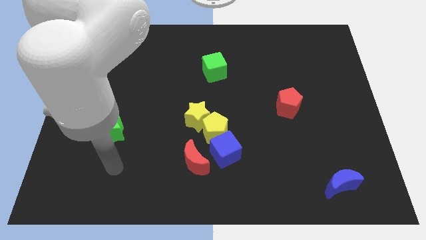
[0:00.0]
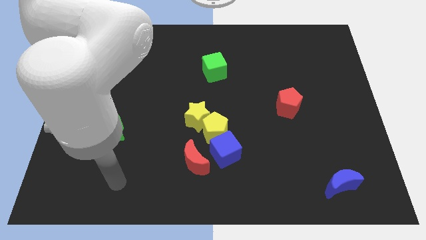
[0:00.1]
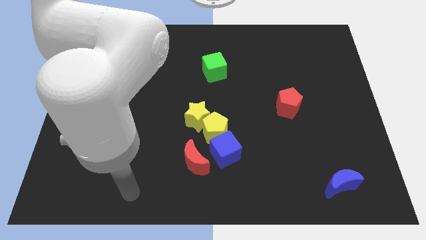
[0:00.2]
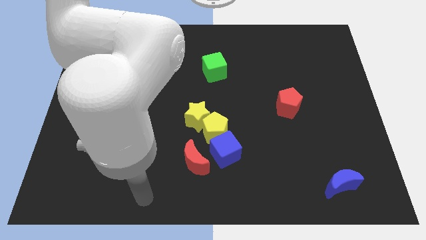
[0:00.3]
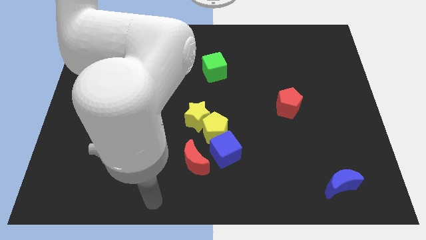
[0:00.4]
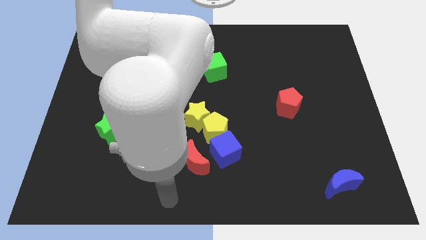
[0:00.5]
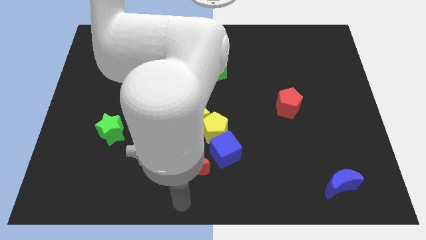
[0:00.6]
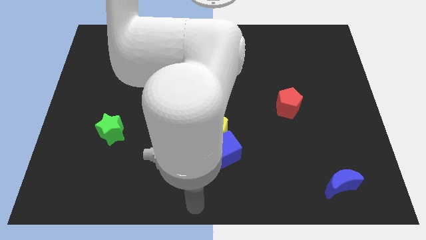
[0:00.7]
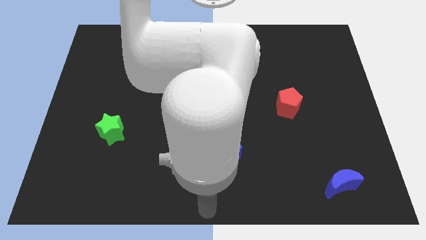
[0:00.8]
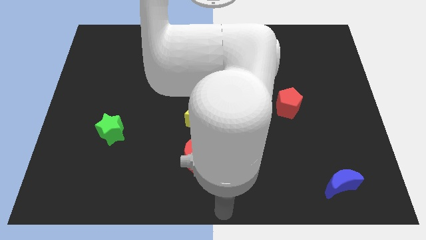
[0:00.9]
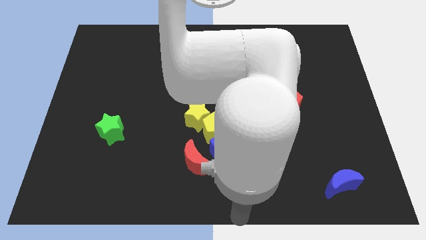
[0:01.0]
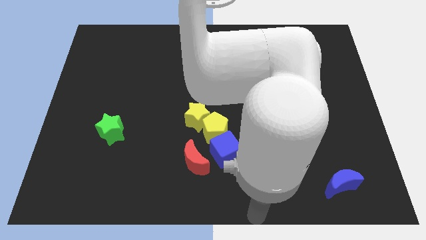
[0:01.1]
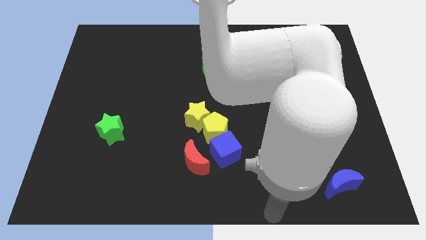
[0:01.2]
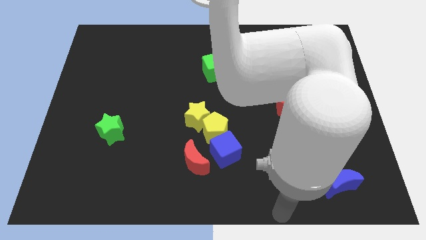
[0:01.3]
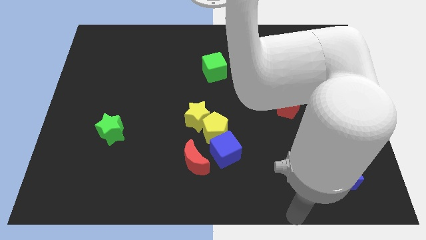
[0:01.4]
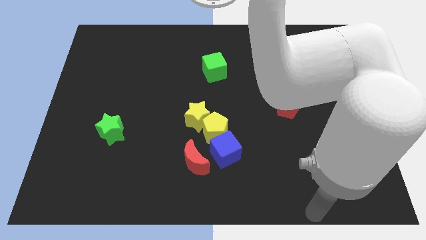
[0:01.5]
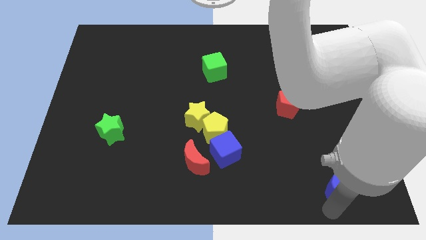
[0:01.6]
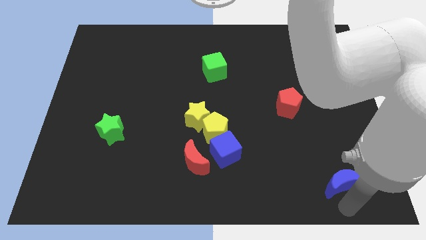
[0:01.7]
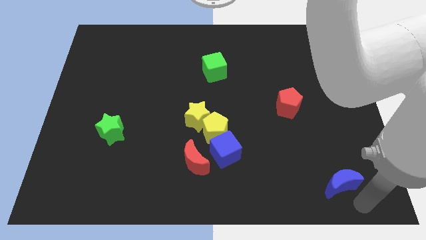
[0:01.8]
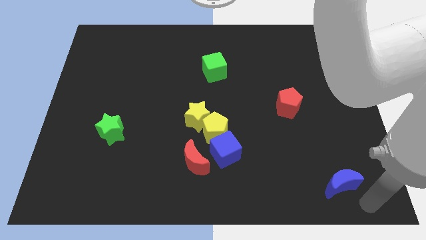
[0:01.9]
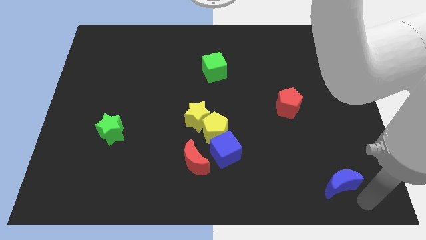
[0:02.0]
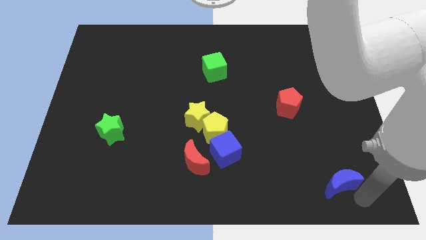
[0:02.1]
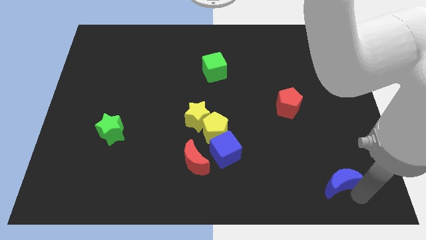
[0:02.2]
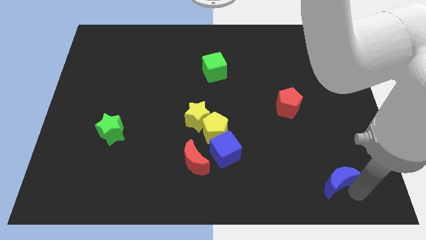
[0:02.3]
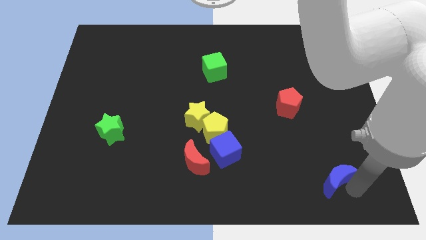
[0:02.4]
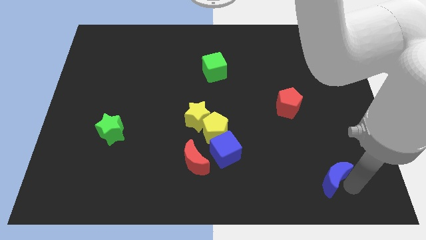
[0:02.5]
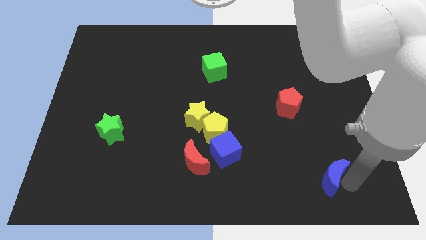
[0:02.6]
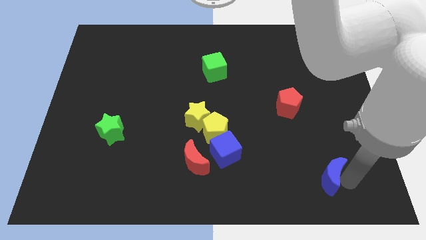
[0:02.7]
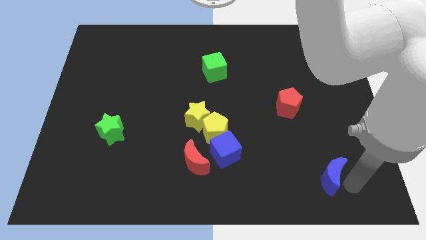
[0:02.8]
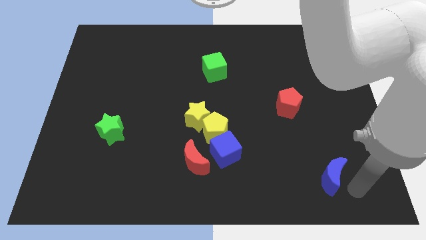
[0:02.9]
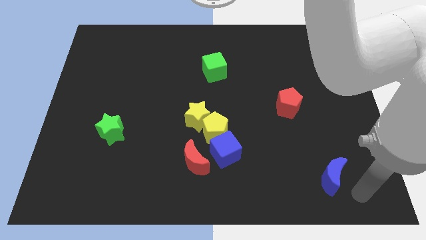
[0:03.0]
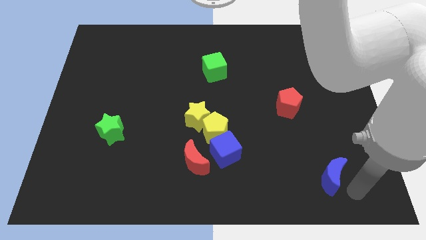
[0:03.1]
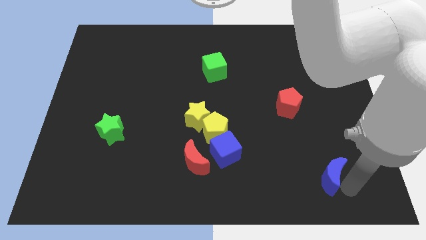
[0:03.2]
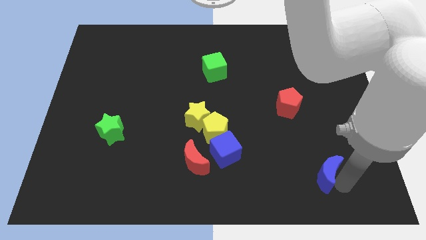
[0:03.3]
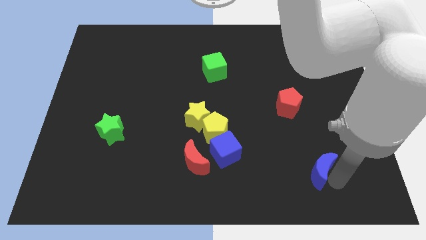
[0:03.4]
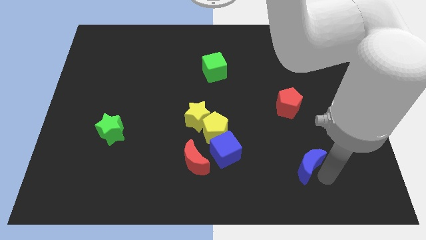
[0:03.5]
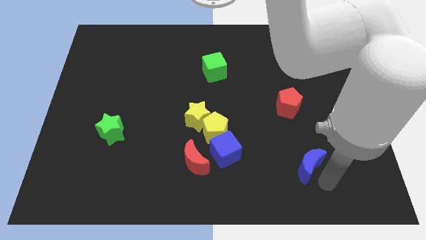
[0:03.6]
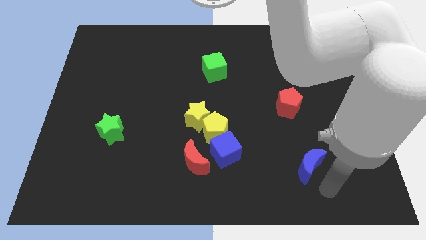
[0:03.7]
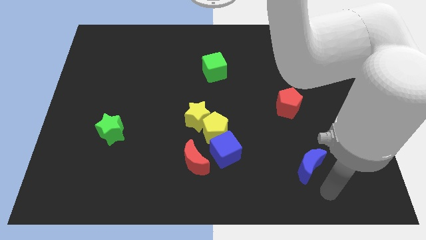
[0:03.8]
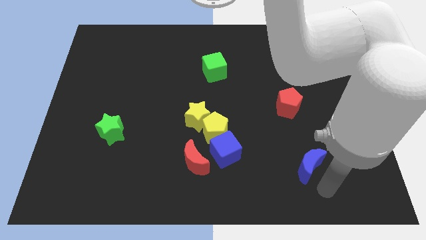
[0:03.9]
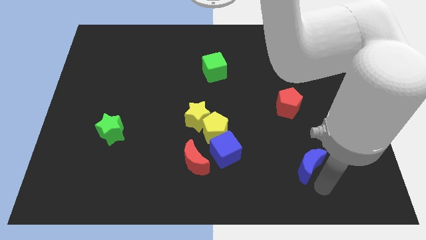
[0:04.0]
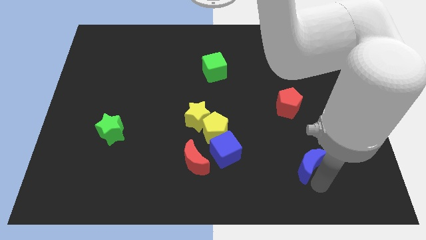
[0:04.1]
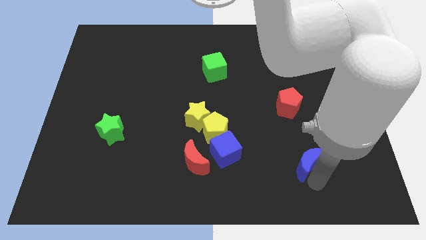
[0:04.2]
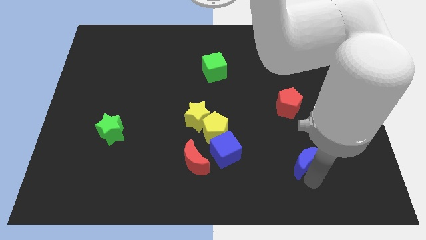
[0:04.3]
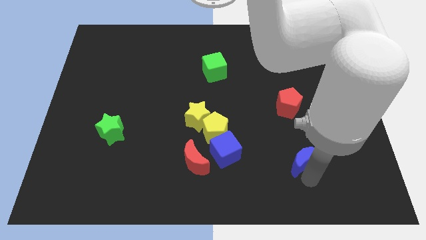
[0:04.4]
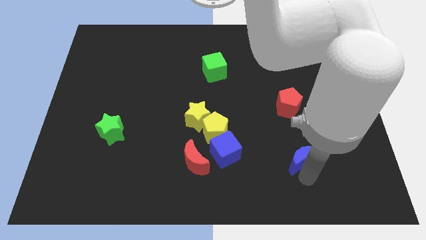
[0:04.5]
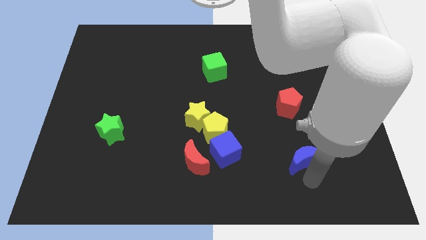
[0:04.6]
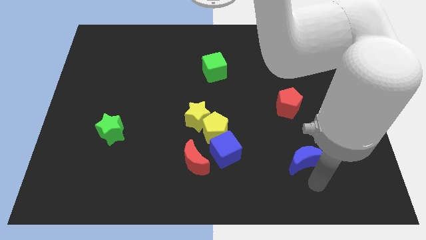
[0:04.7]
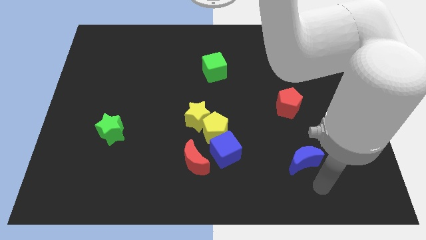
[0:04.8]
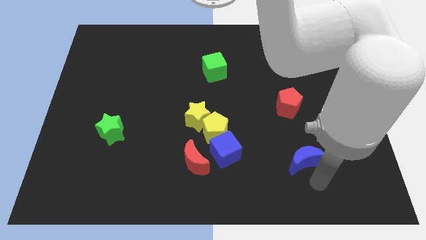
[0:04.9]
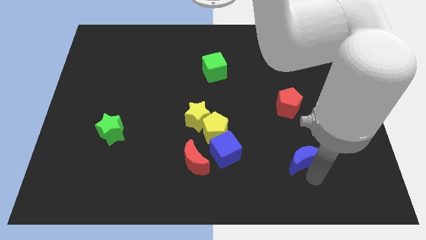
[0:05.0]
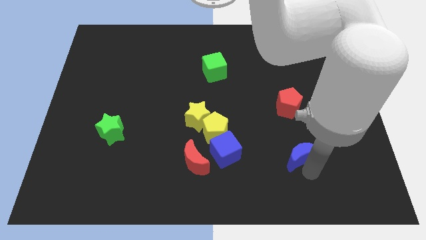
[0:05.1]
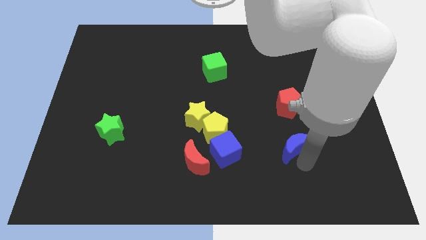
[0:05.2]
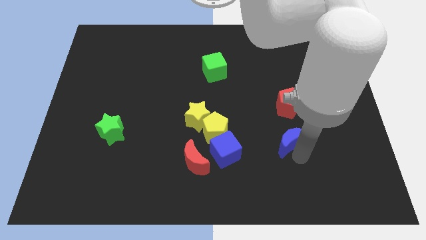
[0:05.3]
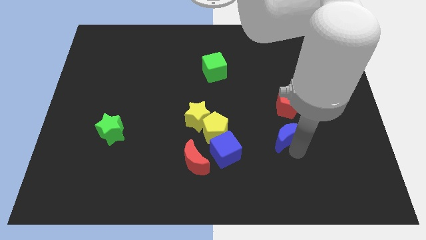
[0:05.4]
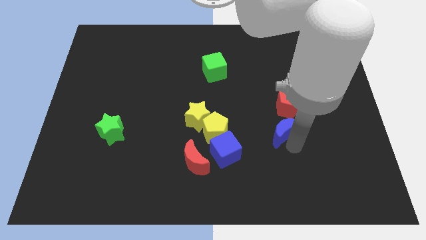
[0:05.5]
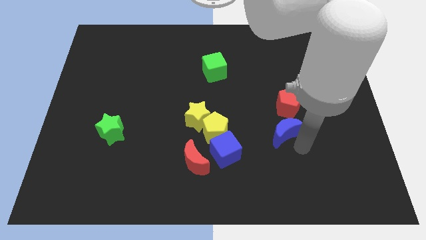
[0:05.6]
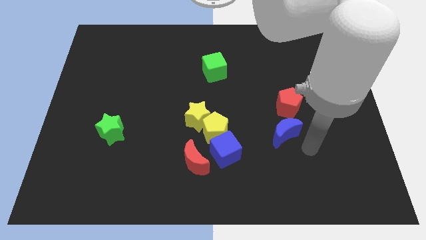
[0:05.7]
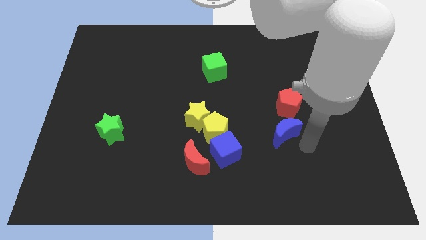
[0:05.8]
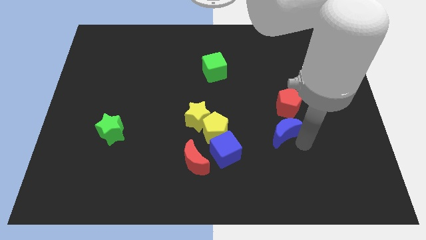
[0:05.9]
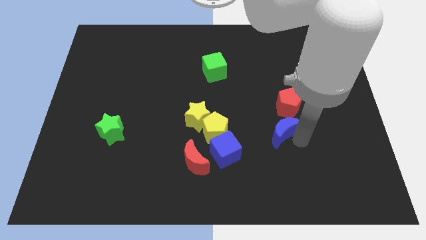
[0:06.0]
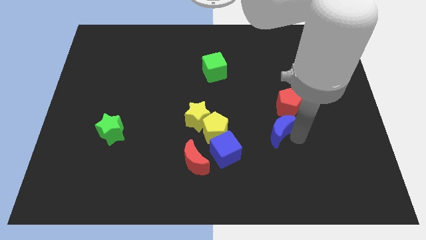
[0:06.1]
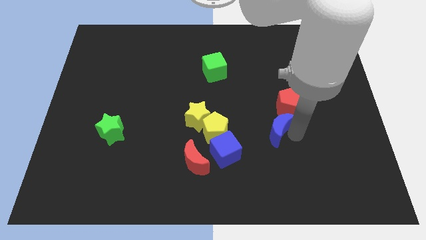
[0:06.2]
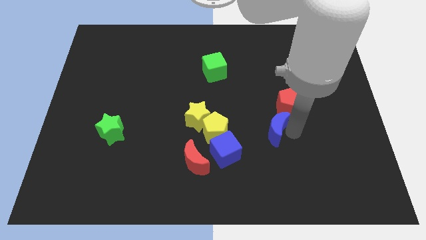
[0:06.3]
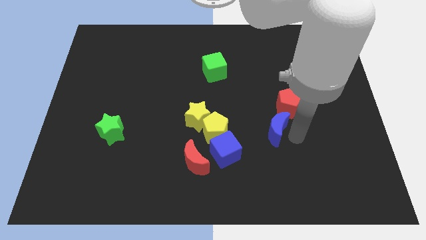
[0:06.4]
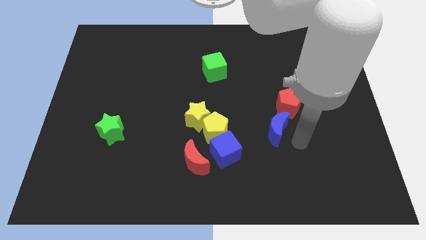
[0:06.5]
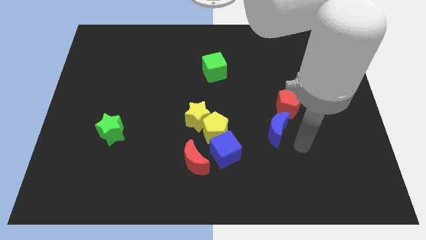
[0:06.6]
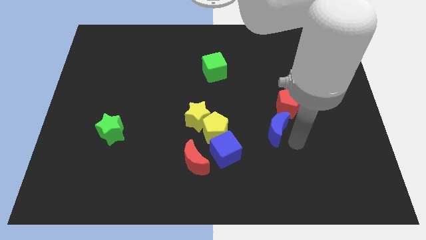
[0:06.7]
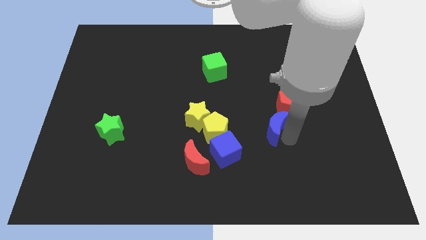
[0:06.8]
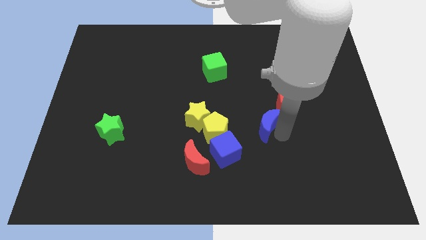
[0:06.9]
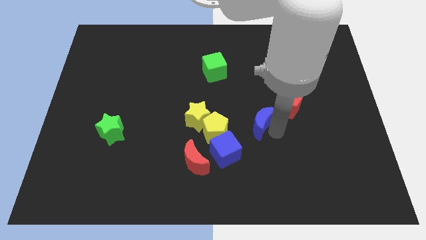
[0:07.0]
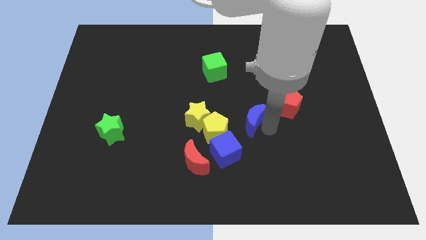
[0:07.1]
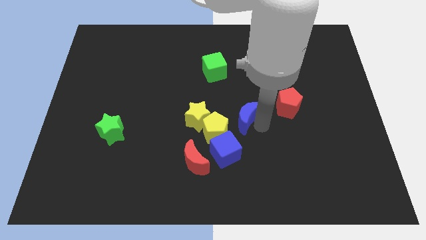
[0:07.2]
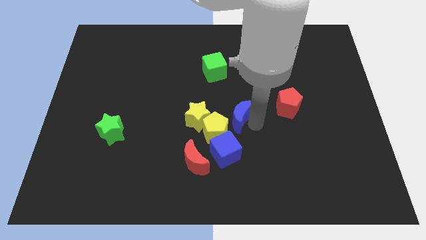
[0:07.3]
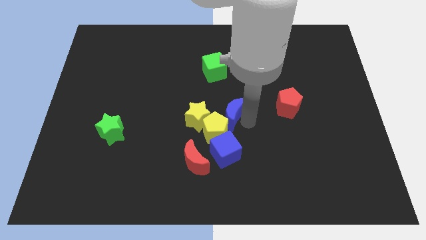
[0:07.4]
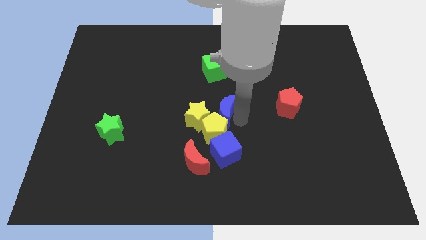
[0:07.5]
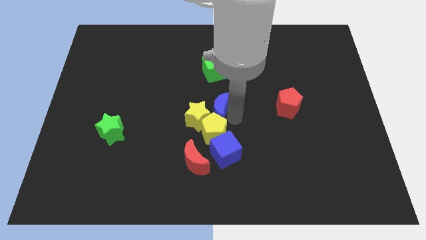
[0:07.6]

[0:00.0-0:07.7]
push the blue moon close to the yellow star
